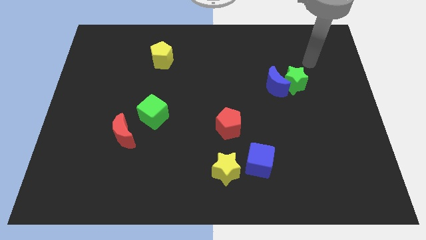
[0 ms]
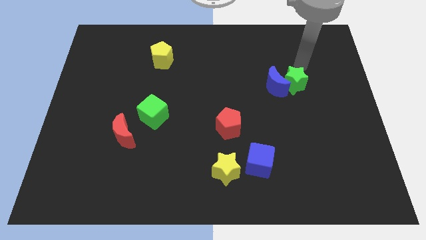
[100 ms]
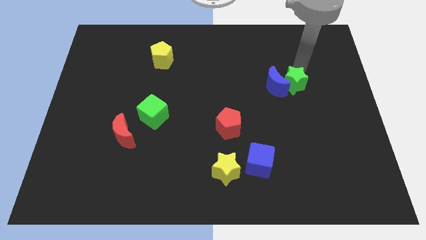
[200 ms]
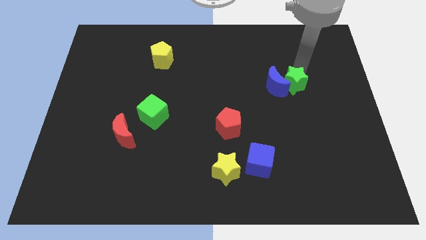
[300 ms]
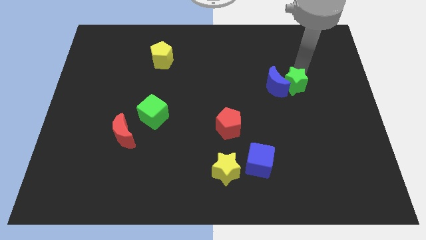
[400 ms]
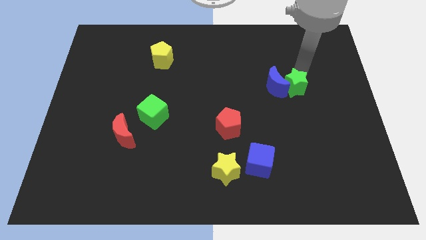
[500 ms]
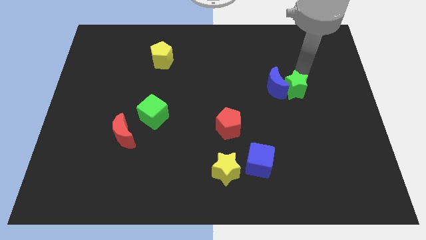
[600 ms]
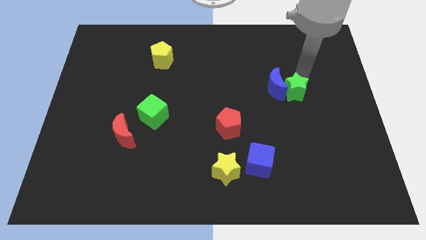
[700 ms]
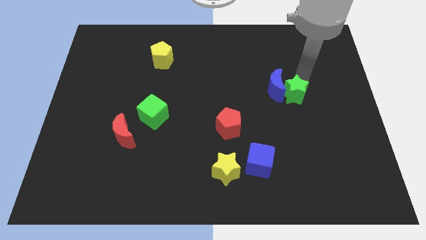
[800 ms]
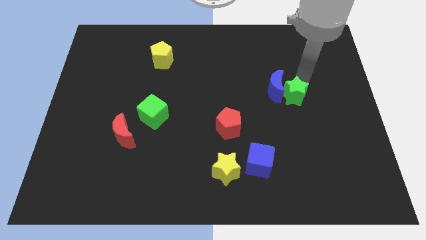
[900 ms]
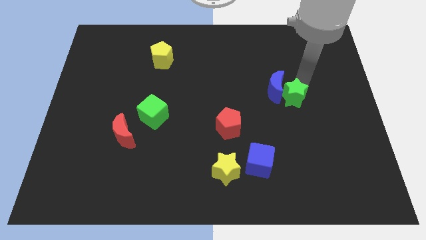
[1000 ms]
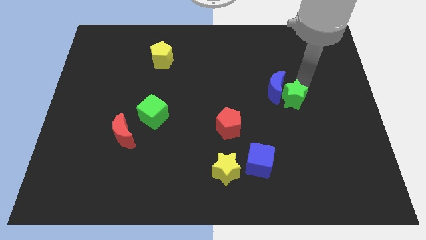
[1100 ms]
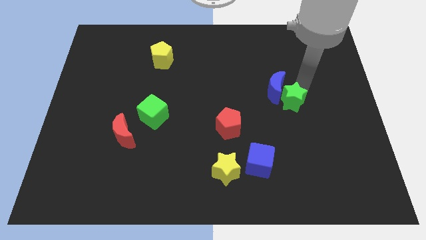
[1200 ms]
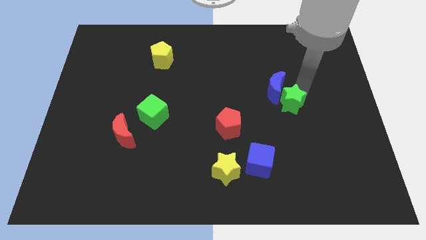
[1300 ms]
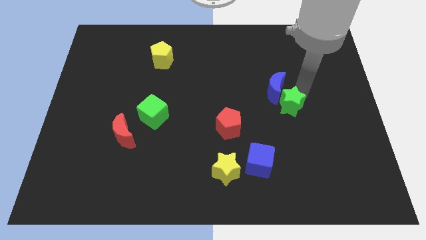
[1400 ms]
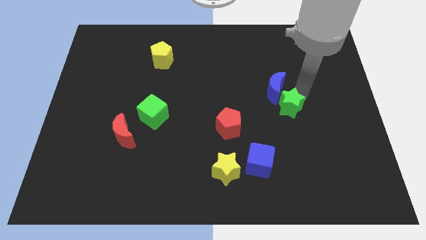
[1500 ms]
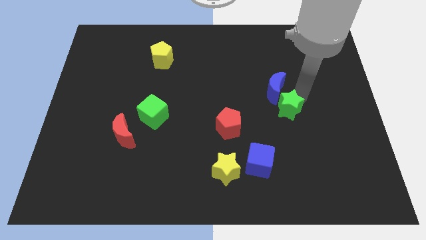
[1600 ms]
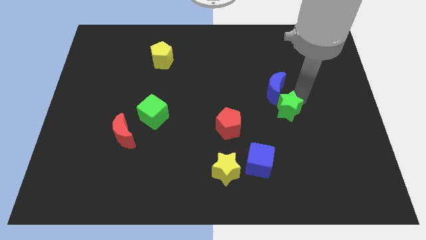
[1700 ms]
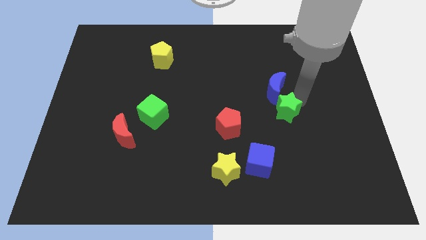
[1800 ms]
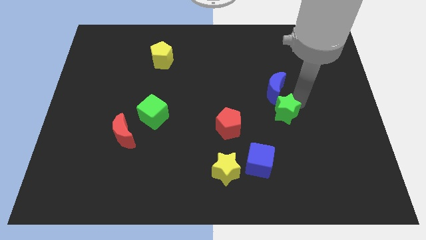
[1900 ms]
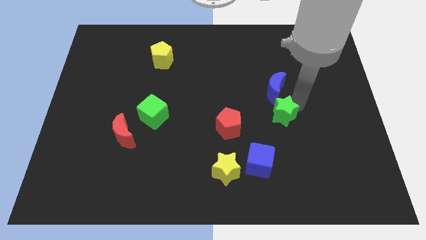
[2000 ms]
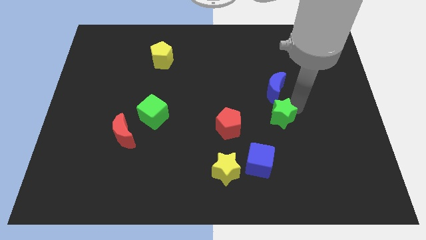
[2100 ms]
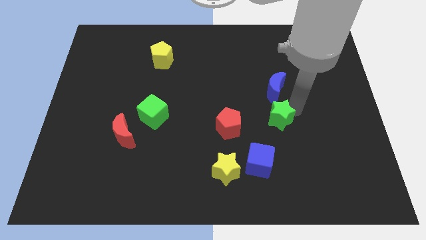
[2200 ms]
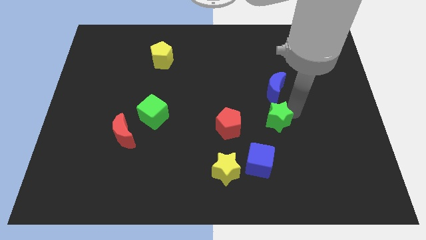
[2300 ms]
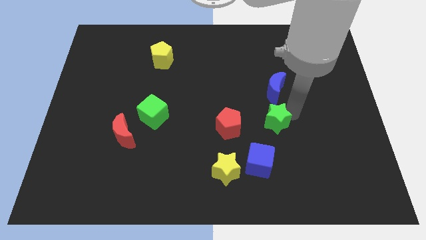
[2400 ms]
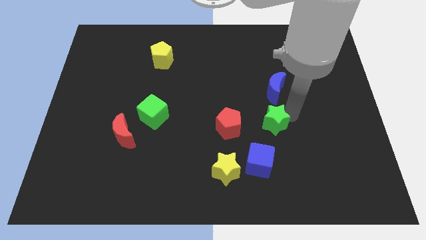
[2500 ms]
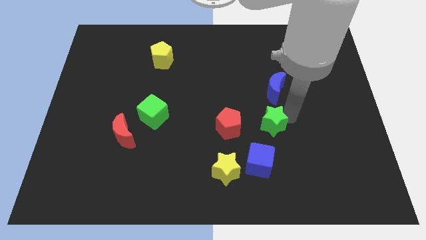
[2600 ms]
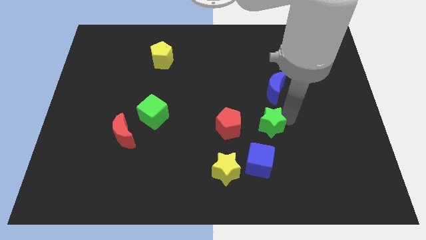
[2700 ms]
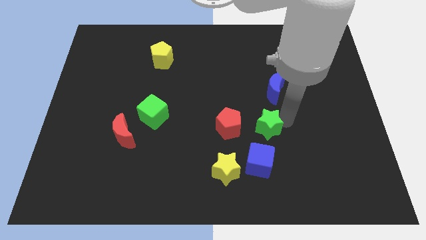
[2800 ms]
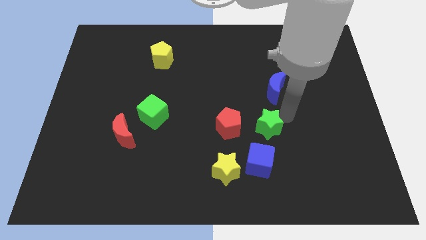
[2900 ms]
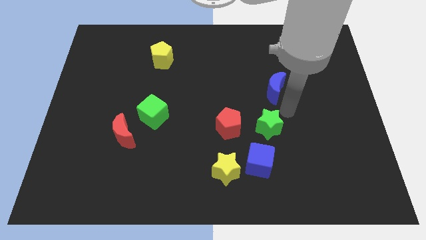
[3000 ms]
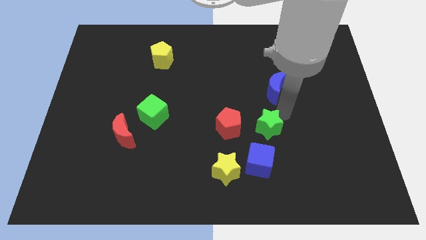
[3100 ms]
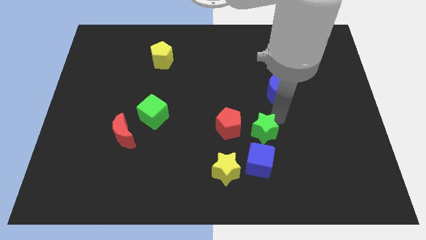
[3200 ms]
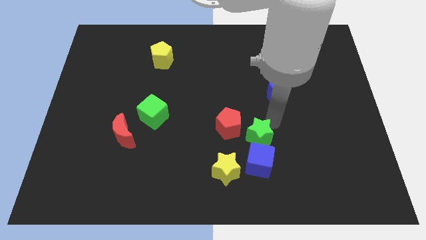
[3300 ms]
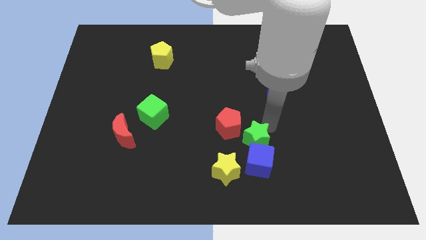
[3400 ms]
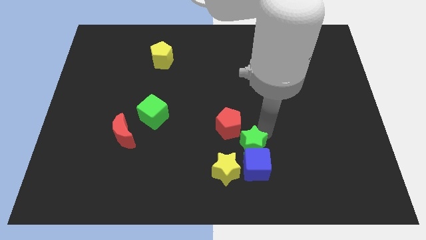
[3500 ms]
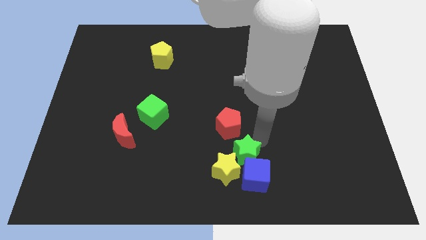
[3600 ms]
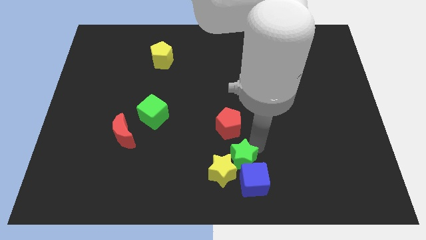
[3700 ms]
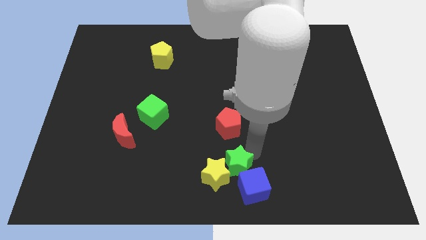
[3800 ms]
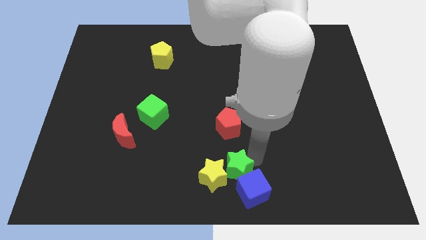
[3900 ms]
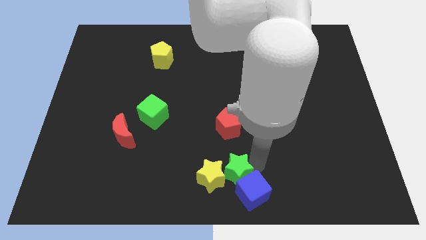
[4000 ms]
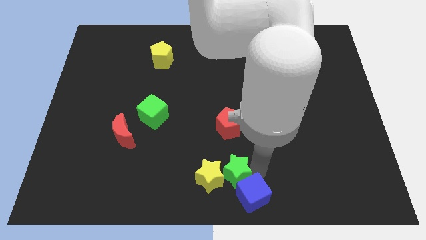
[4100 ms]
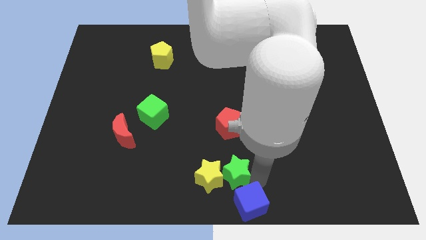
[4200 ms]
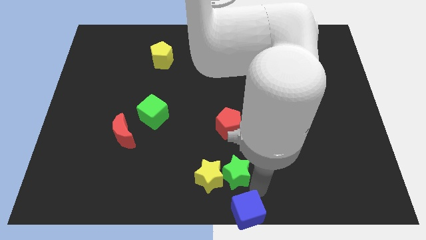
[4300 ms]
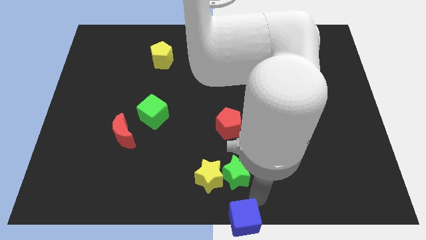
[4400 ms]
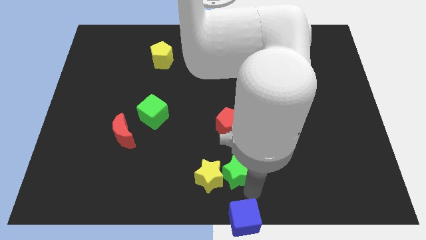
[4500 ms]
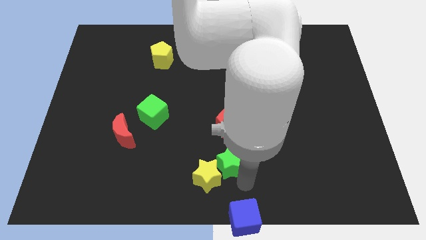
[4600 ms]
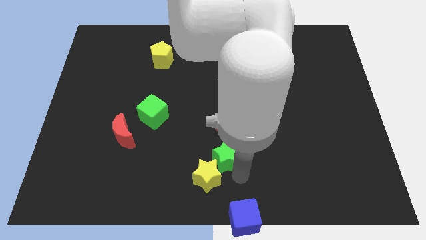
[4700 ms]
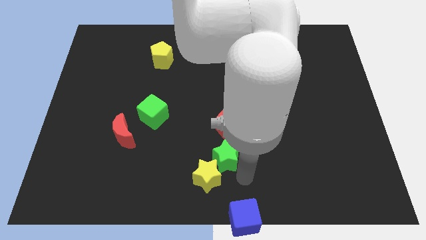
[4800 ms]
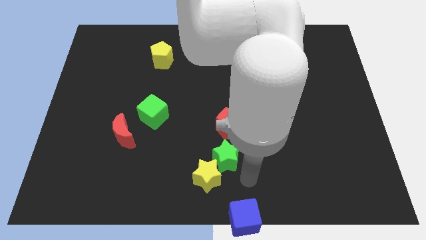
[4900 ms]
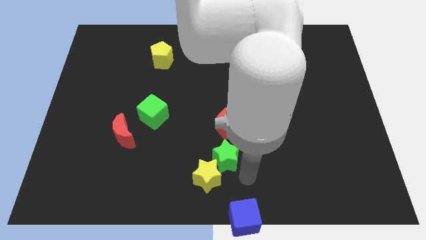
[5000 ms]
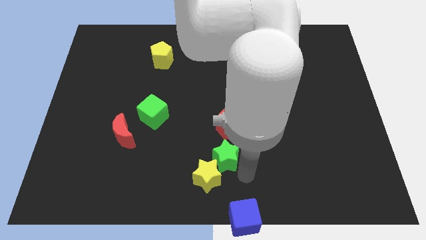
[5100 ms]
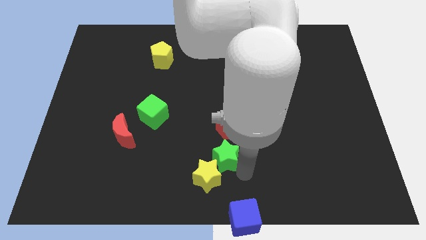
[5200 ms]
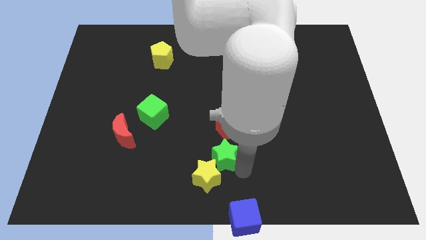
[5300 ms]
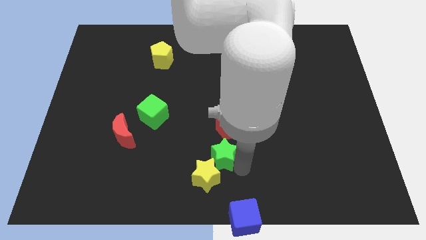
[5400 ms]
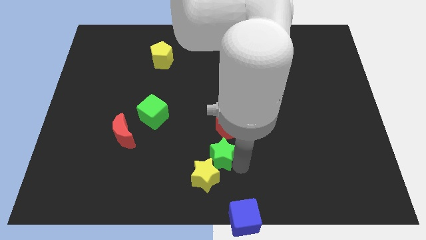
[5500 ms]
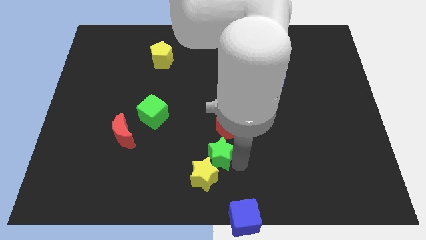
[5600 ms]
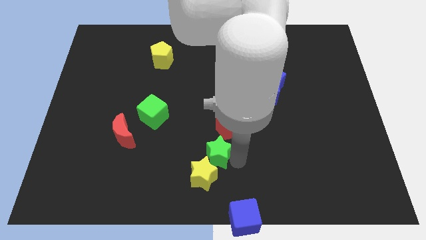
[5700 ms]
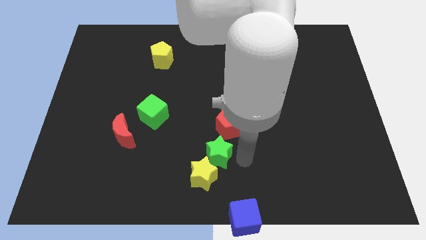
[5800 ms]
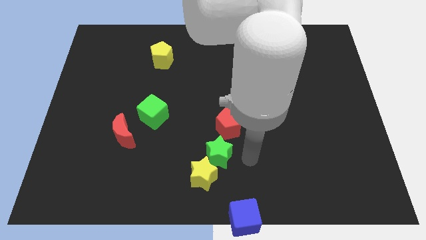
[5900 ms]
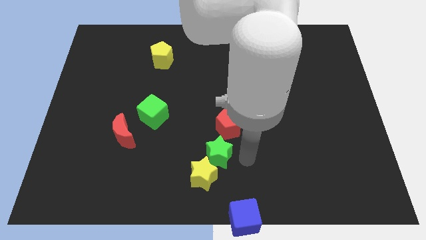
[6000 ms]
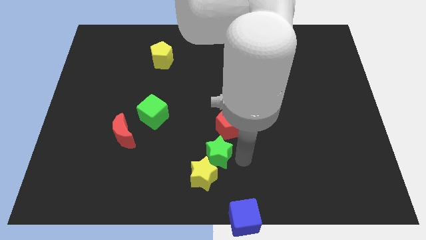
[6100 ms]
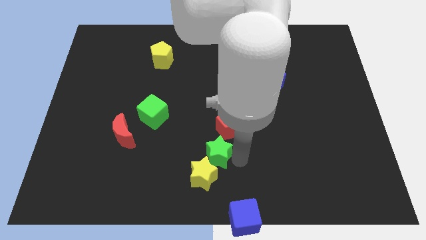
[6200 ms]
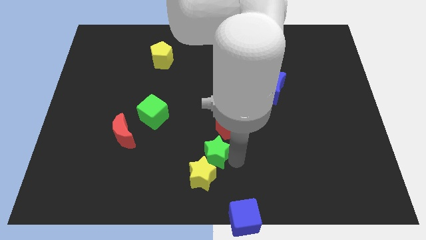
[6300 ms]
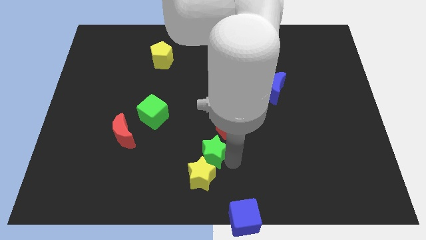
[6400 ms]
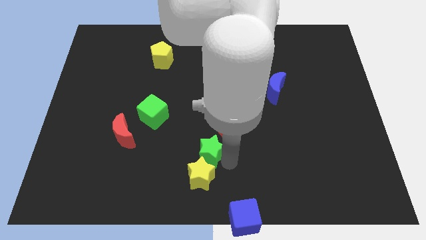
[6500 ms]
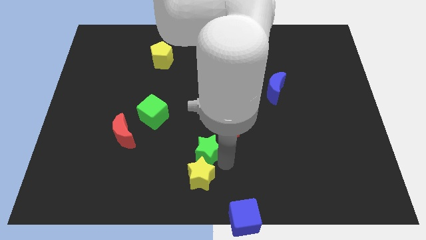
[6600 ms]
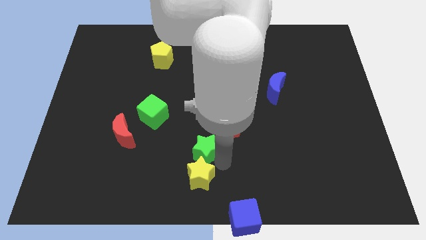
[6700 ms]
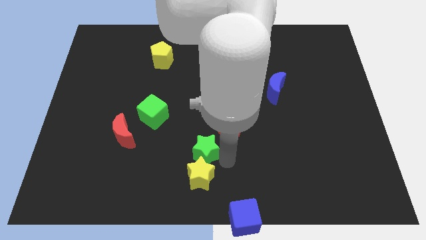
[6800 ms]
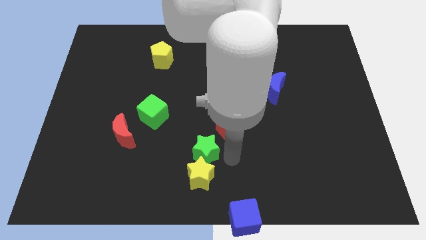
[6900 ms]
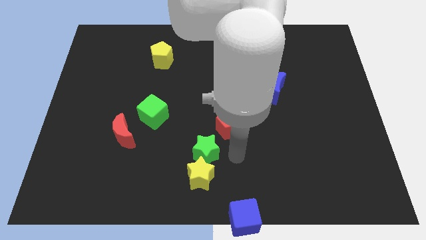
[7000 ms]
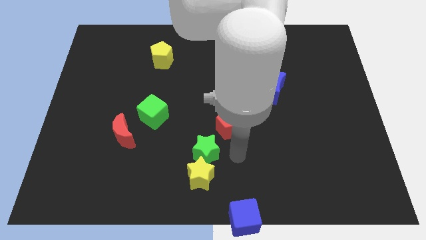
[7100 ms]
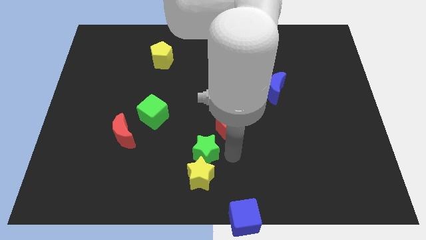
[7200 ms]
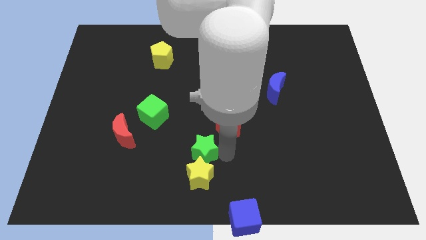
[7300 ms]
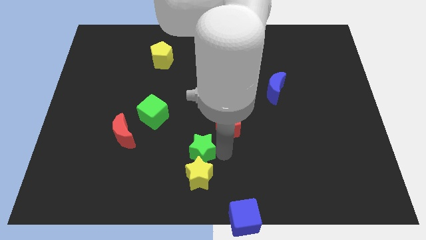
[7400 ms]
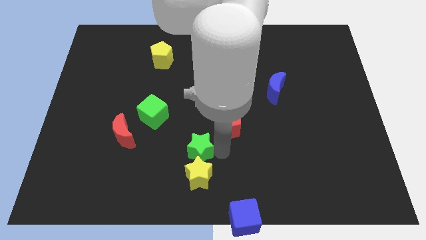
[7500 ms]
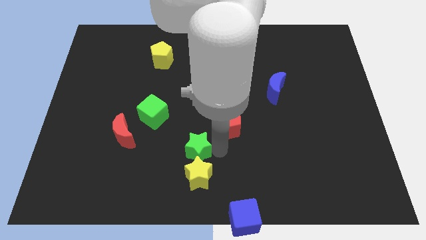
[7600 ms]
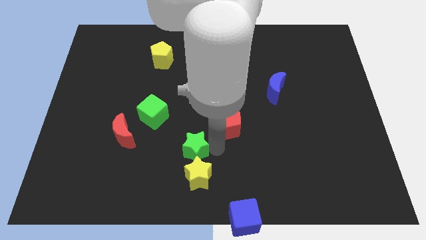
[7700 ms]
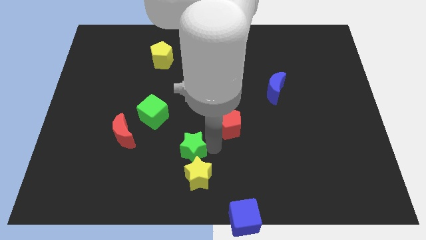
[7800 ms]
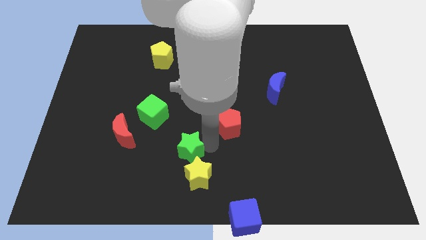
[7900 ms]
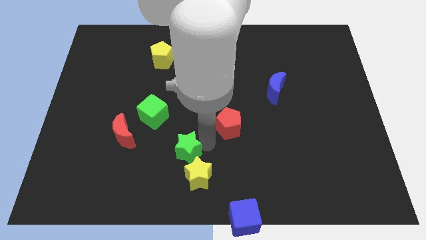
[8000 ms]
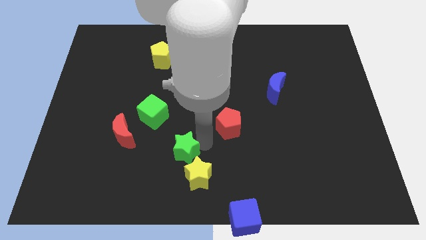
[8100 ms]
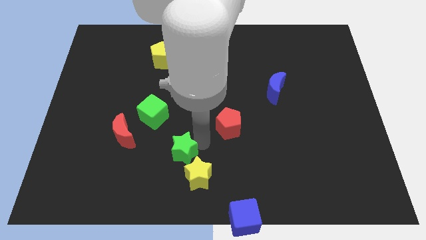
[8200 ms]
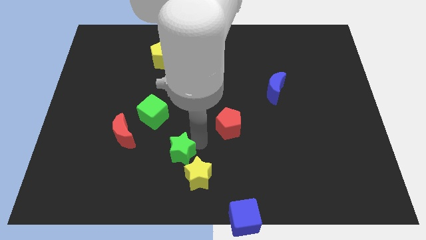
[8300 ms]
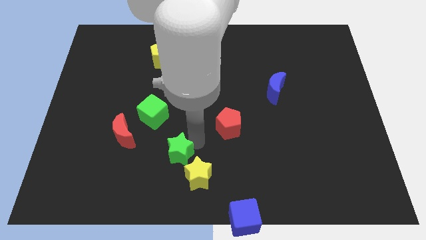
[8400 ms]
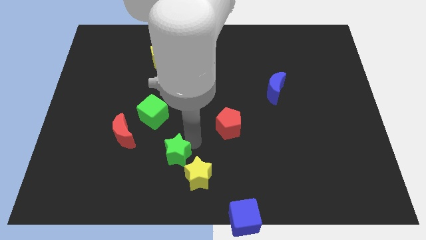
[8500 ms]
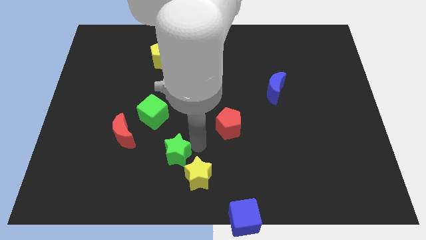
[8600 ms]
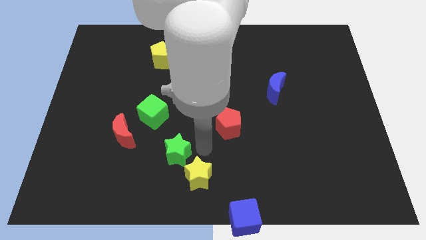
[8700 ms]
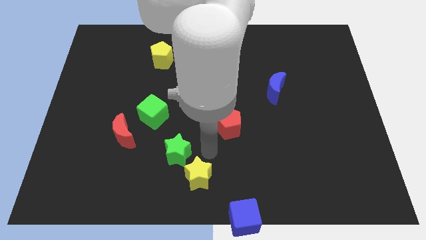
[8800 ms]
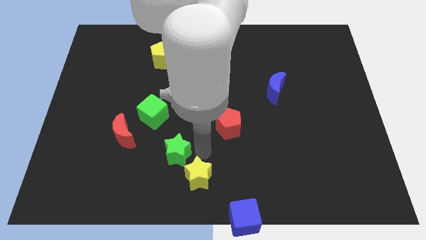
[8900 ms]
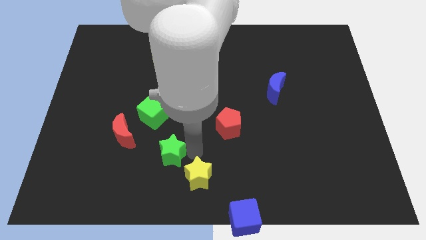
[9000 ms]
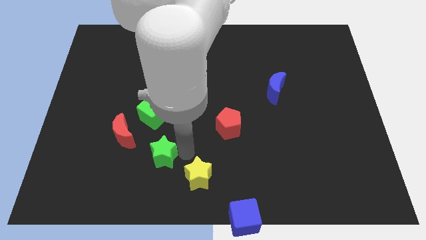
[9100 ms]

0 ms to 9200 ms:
slide the green star to the bottom side of the green cube
